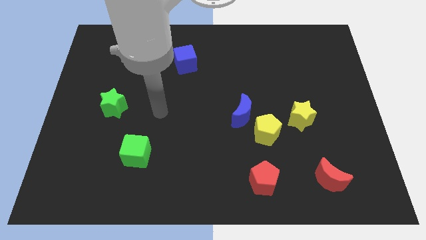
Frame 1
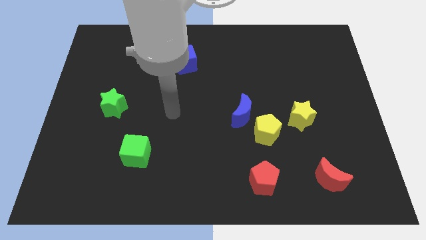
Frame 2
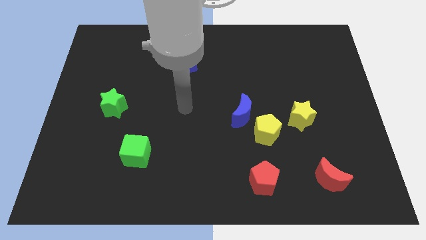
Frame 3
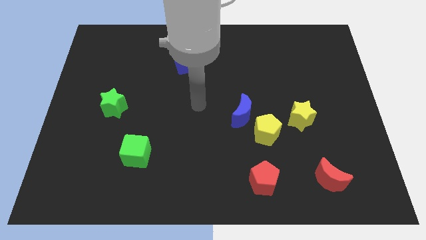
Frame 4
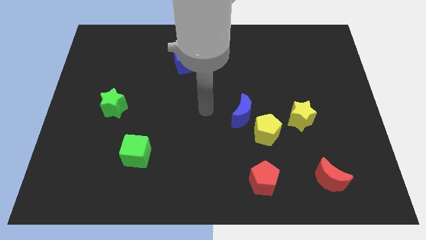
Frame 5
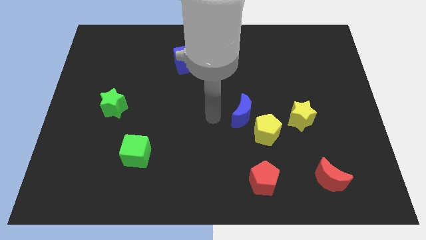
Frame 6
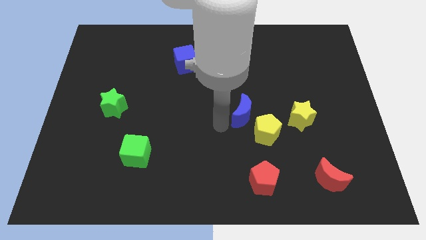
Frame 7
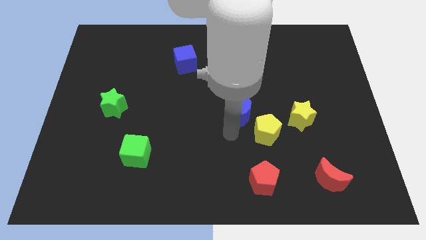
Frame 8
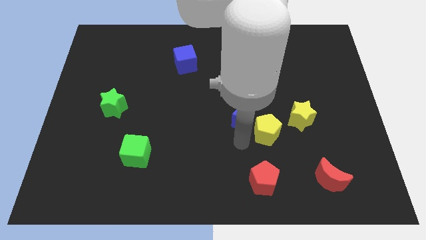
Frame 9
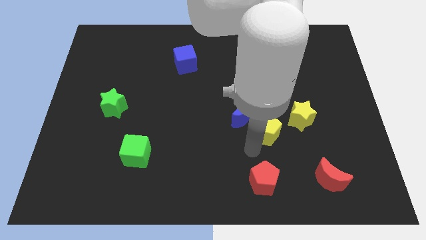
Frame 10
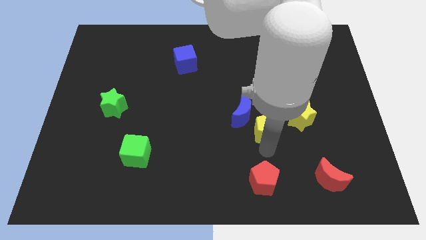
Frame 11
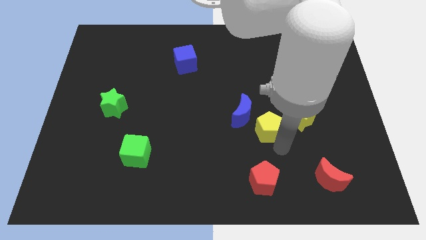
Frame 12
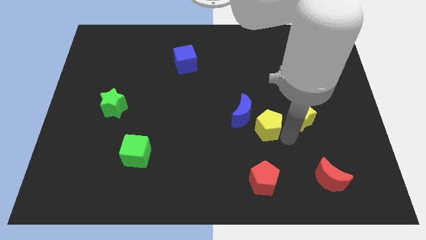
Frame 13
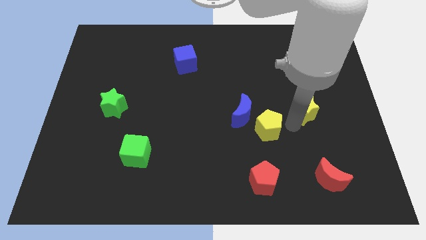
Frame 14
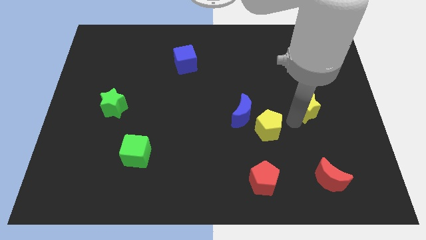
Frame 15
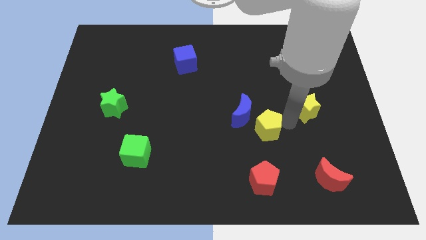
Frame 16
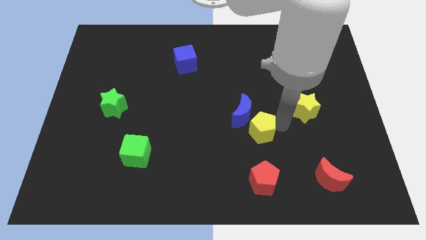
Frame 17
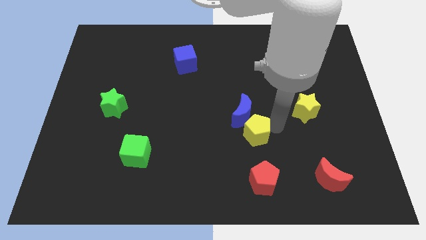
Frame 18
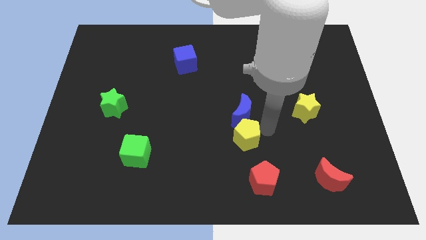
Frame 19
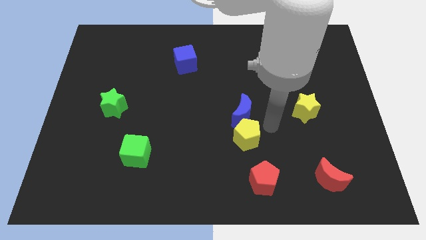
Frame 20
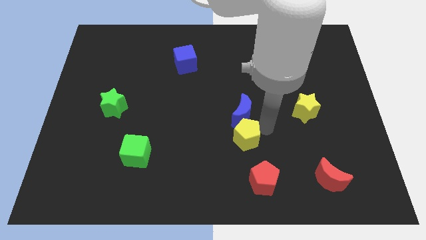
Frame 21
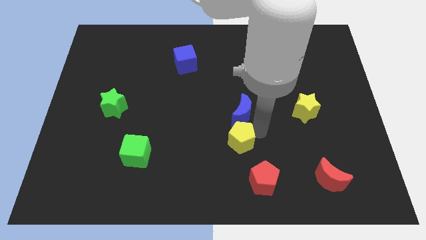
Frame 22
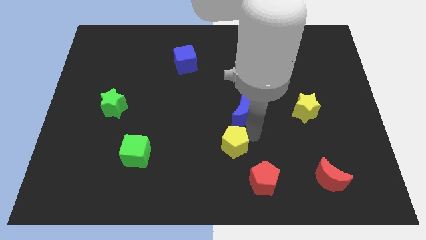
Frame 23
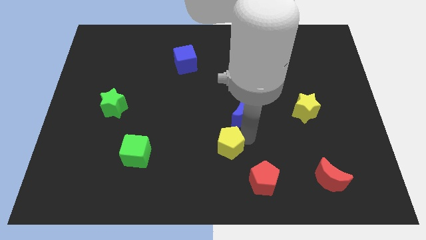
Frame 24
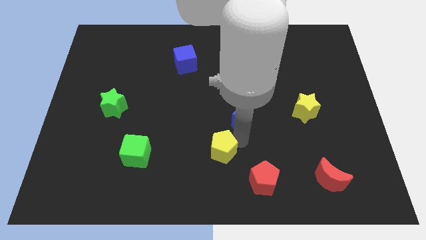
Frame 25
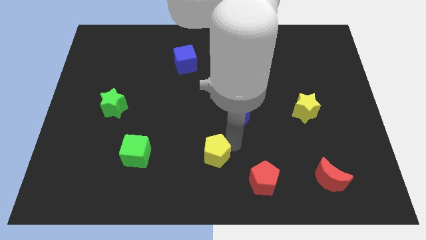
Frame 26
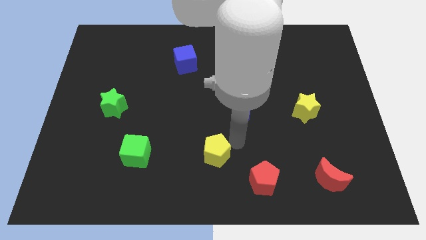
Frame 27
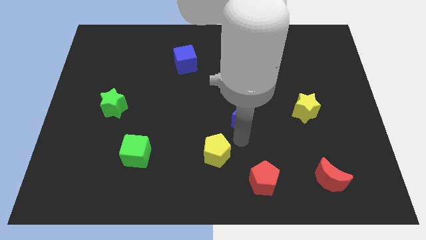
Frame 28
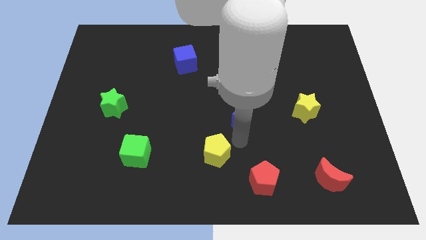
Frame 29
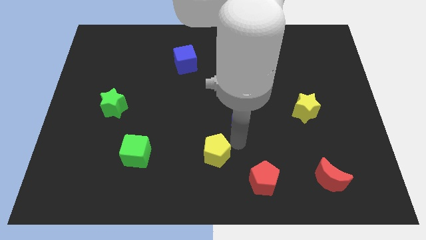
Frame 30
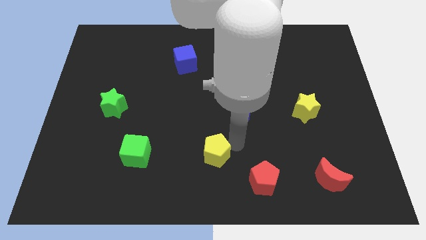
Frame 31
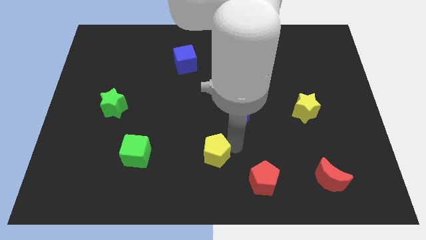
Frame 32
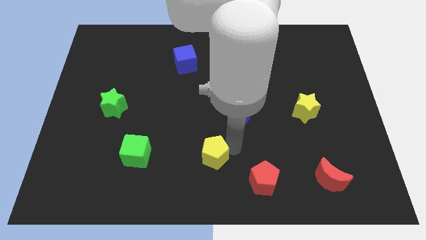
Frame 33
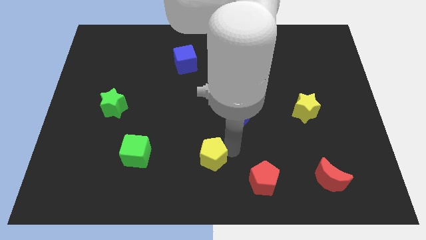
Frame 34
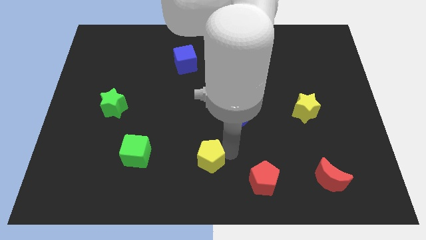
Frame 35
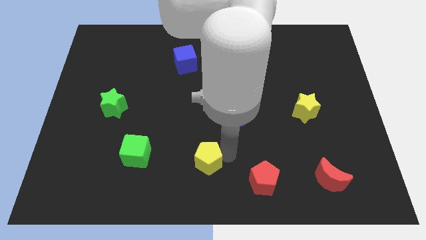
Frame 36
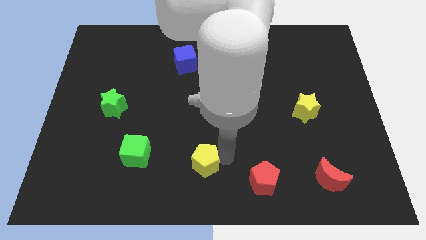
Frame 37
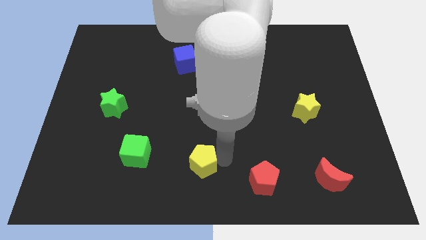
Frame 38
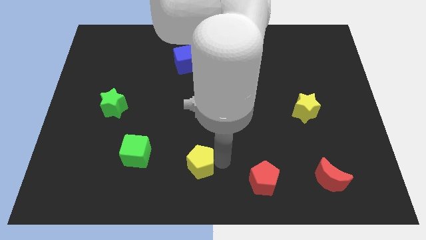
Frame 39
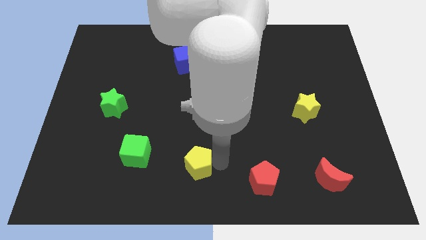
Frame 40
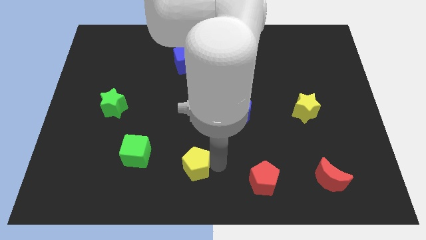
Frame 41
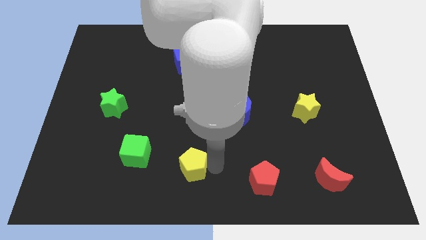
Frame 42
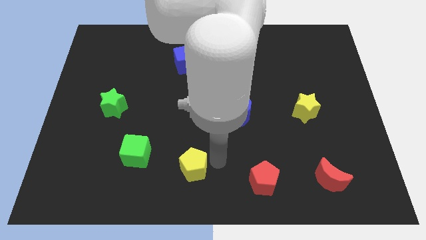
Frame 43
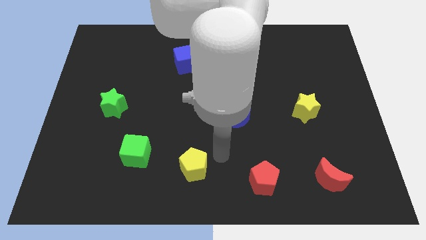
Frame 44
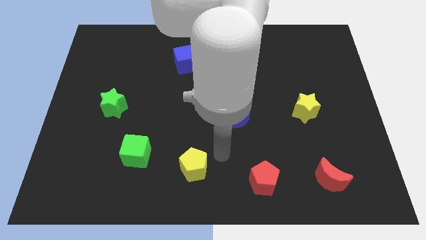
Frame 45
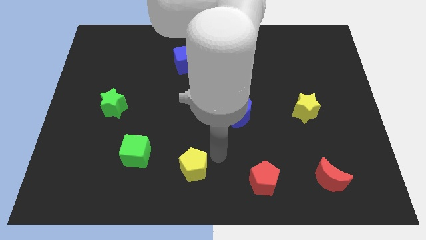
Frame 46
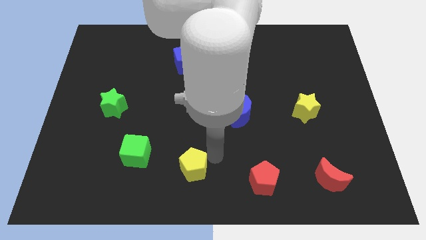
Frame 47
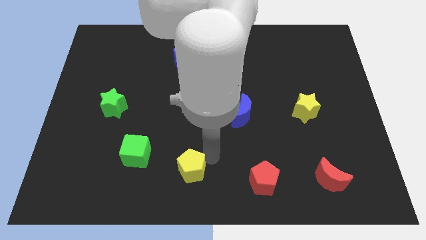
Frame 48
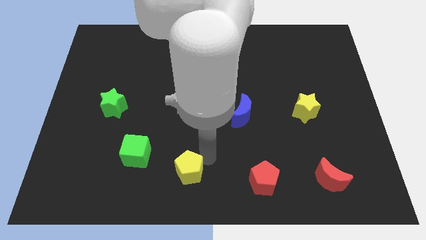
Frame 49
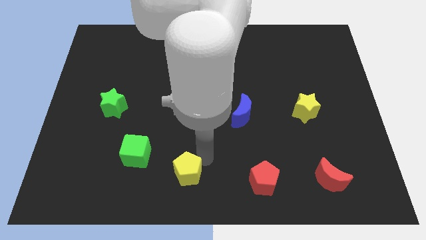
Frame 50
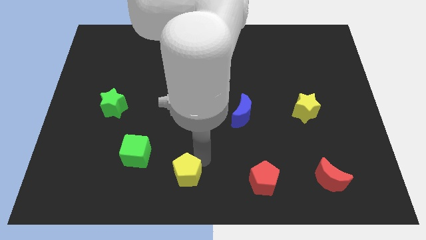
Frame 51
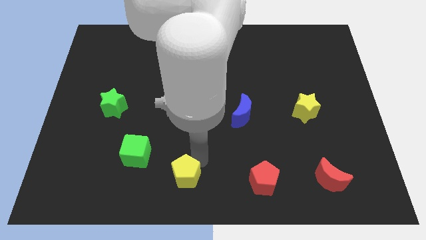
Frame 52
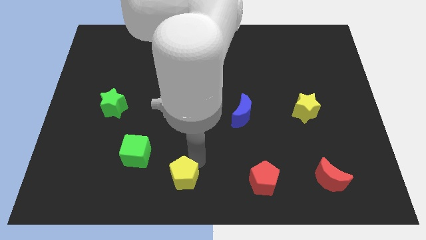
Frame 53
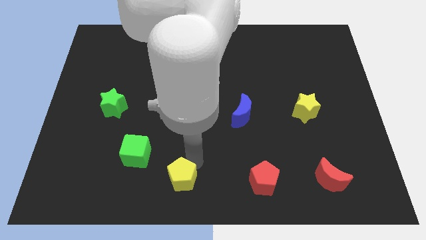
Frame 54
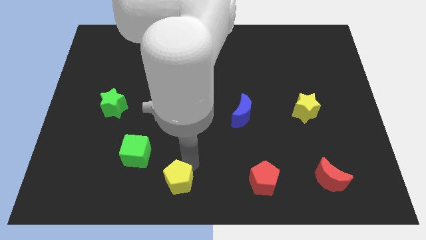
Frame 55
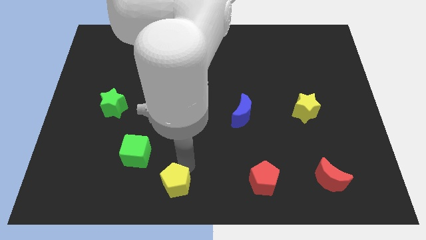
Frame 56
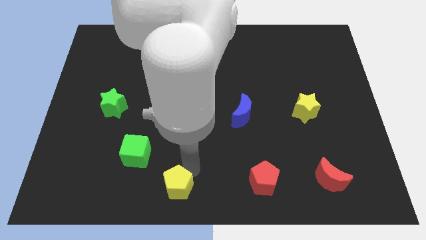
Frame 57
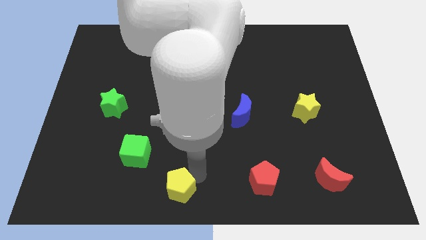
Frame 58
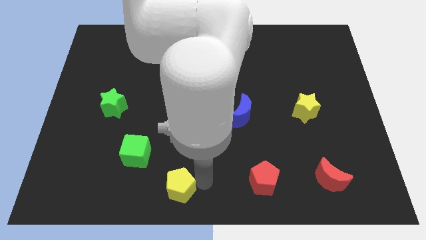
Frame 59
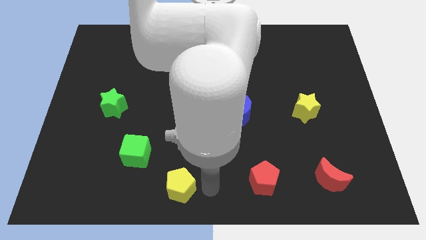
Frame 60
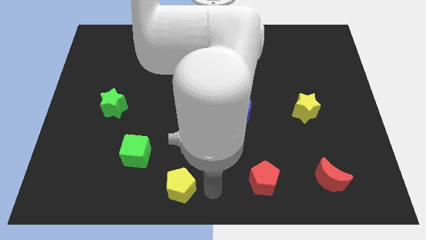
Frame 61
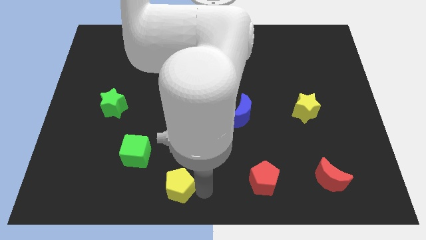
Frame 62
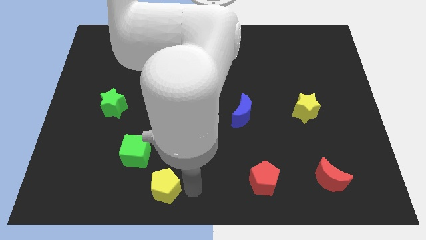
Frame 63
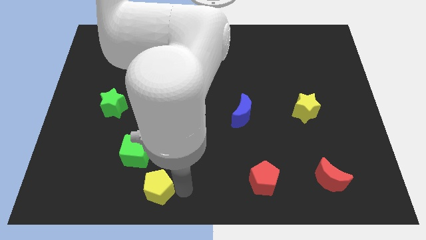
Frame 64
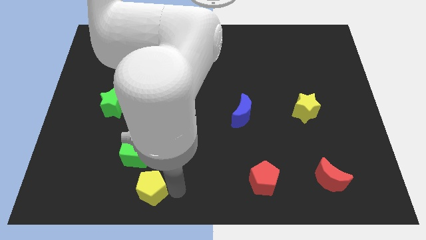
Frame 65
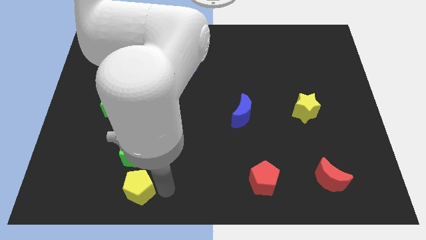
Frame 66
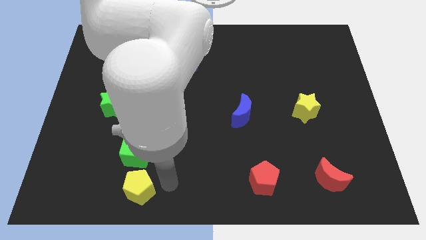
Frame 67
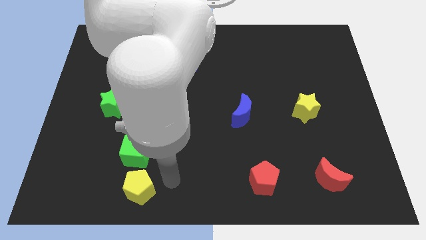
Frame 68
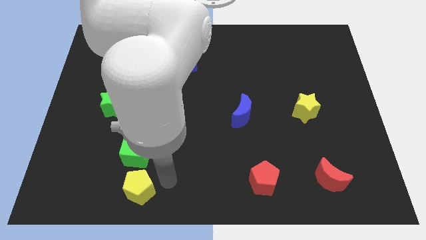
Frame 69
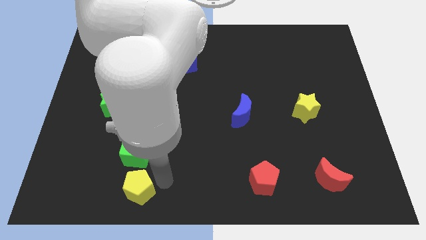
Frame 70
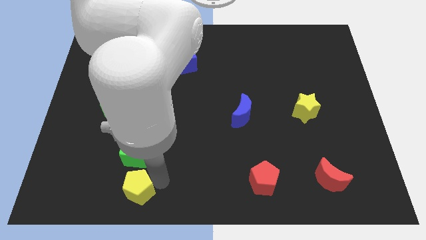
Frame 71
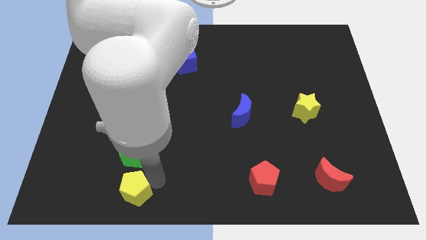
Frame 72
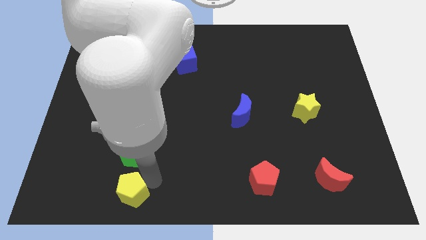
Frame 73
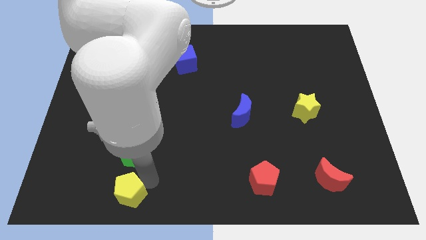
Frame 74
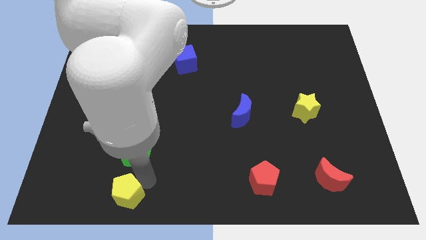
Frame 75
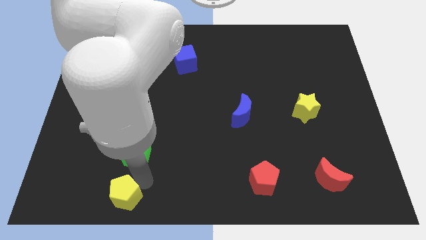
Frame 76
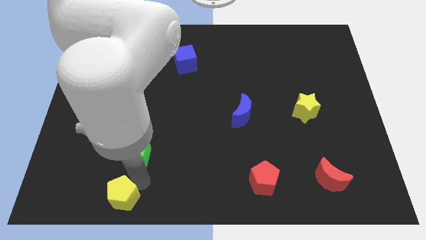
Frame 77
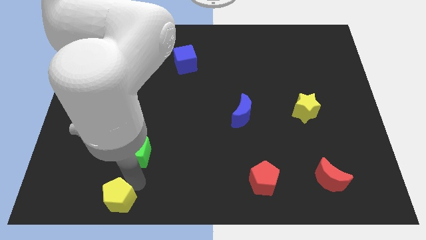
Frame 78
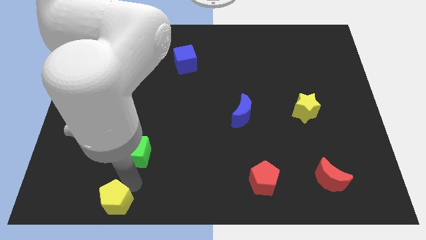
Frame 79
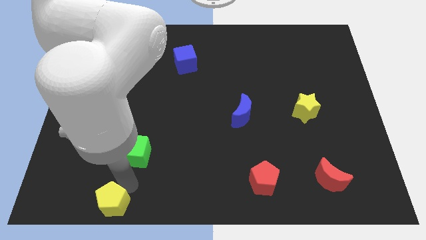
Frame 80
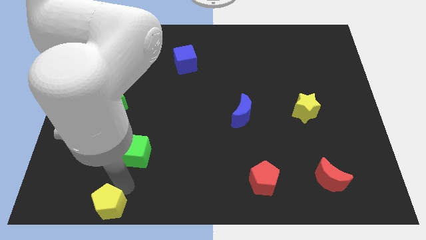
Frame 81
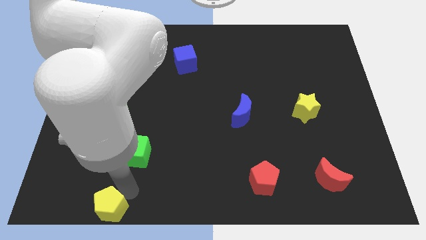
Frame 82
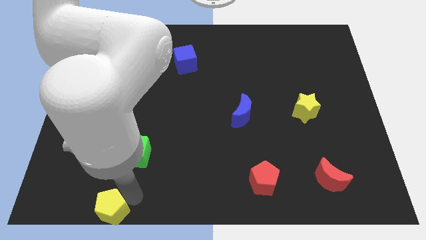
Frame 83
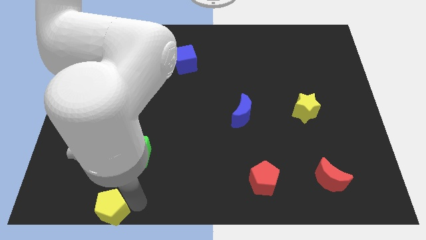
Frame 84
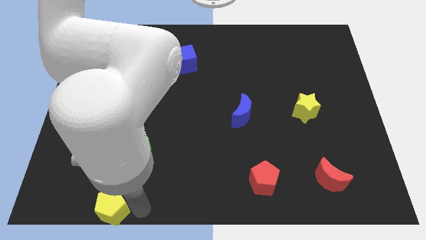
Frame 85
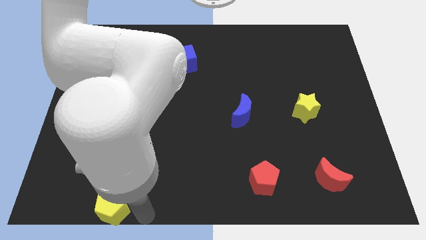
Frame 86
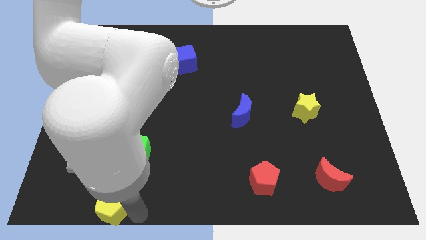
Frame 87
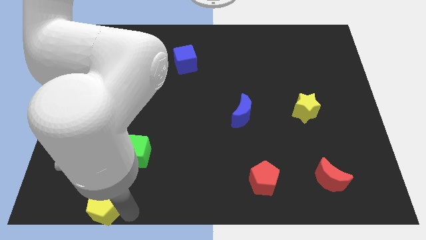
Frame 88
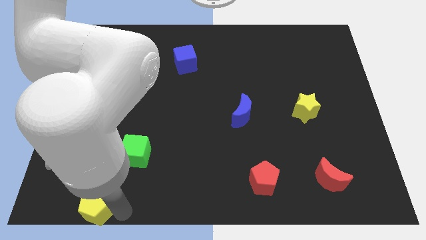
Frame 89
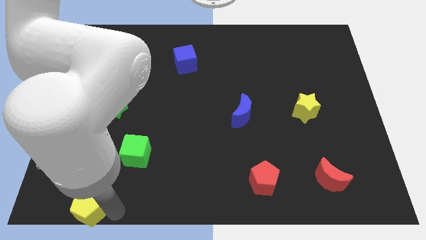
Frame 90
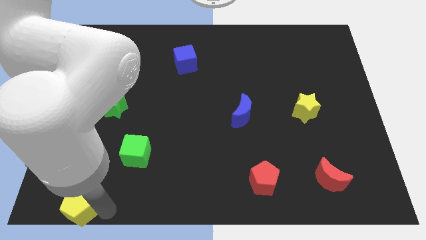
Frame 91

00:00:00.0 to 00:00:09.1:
push the yellow pentagon to the bottom left of the board
